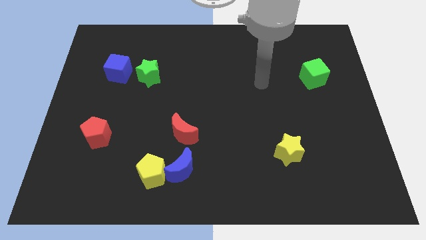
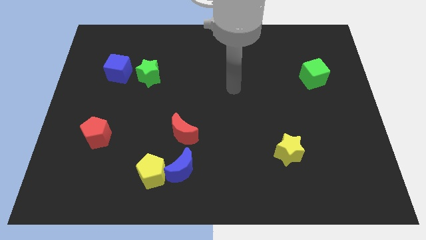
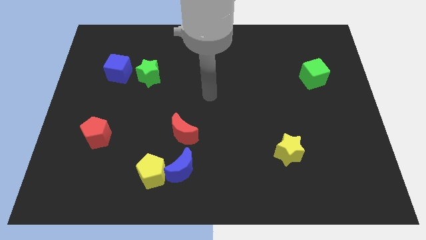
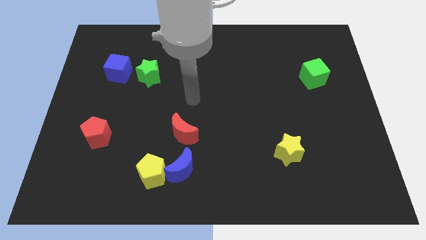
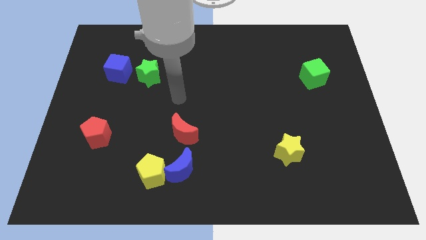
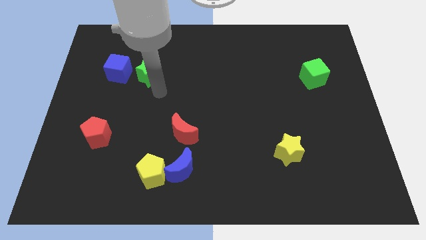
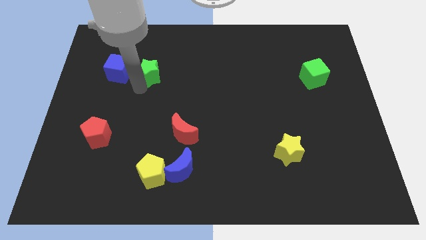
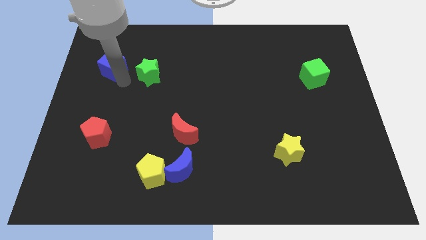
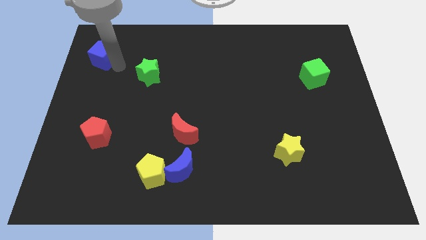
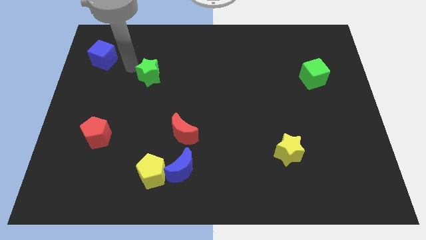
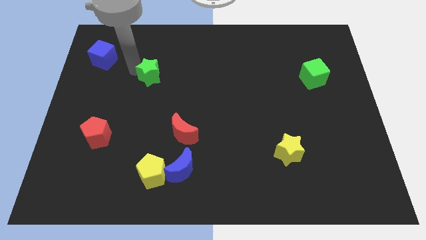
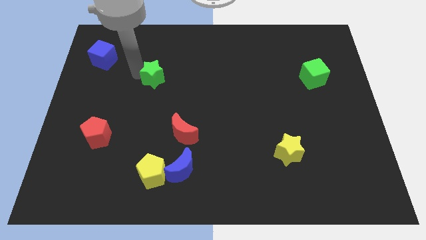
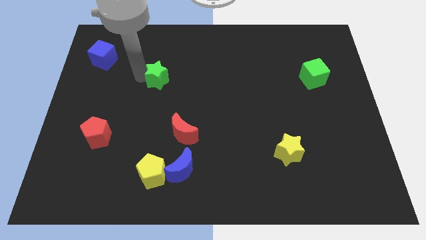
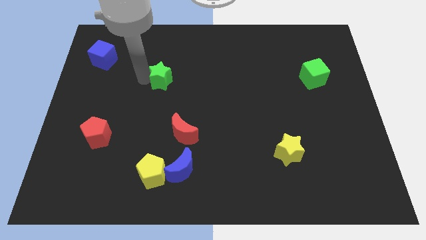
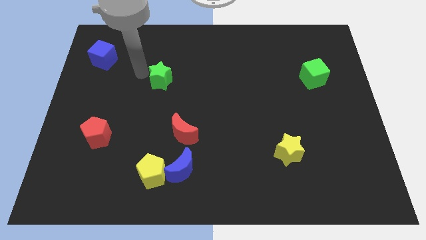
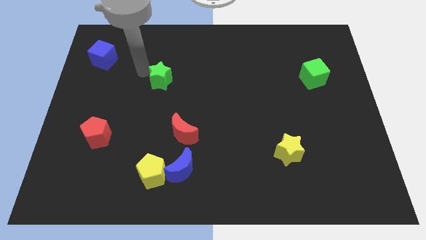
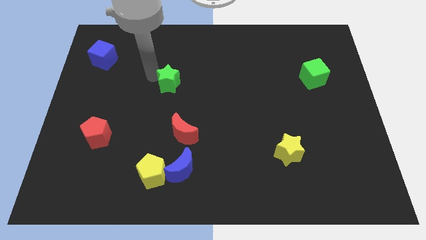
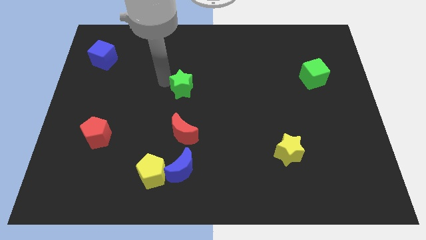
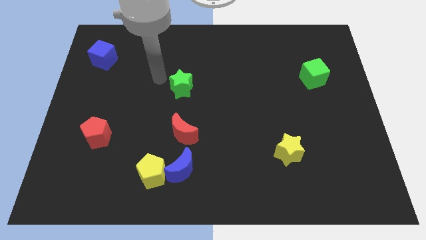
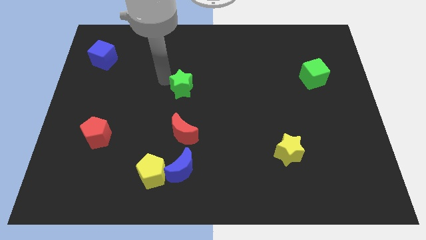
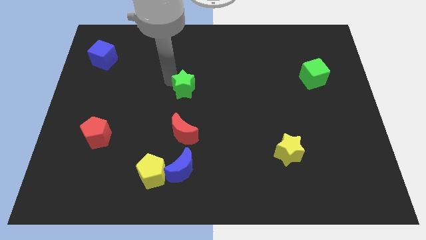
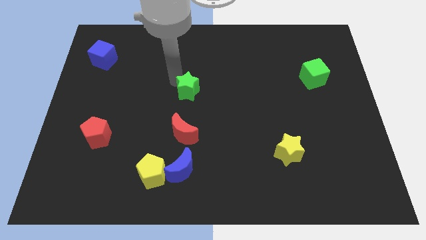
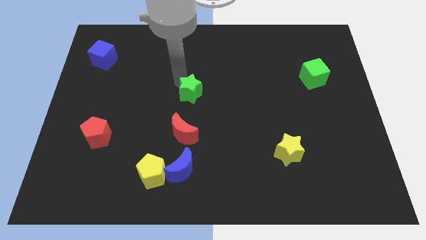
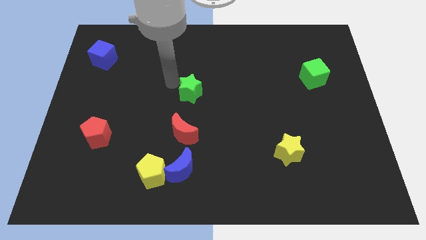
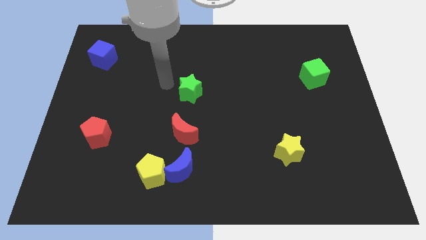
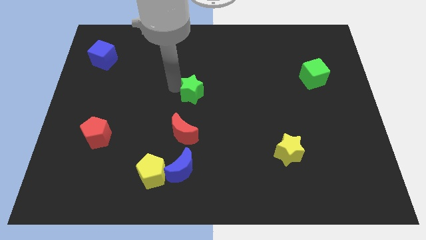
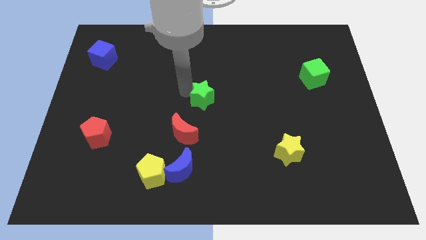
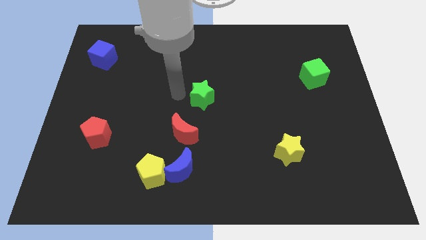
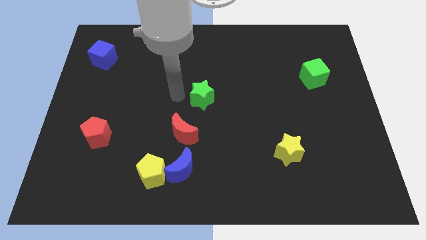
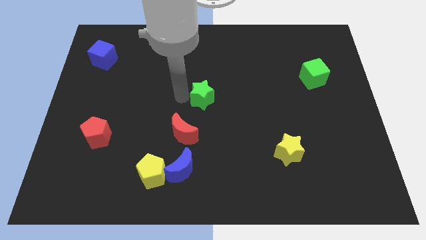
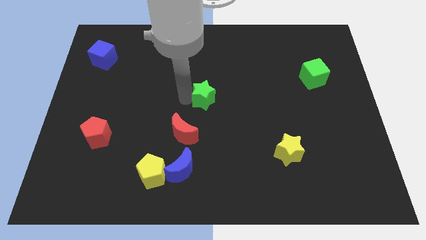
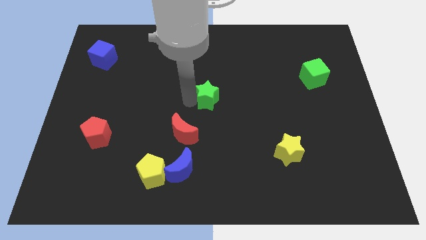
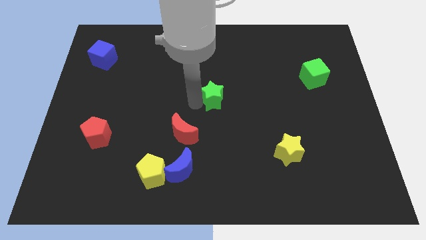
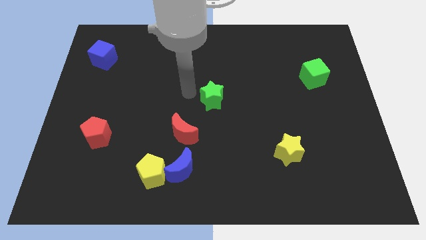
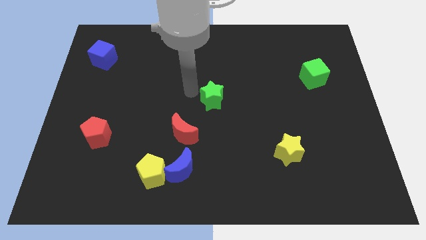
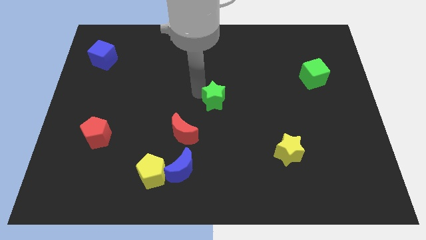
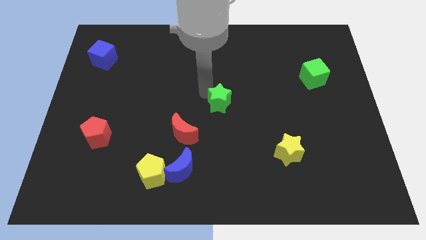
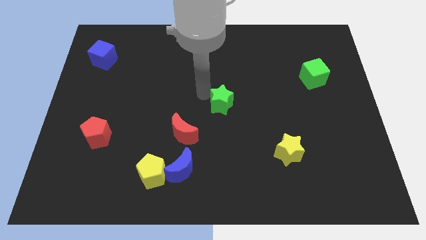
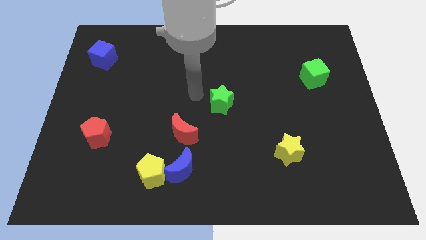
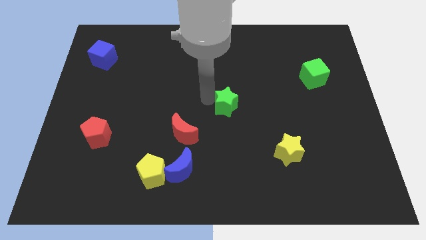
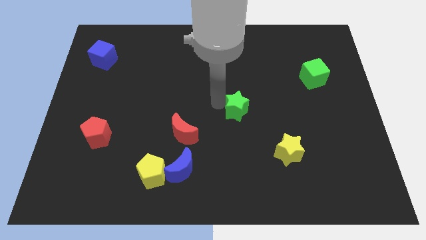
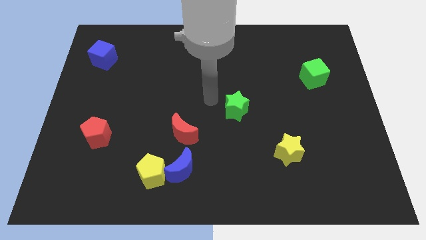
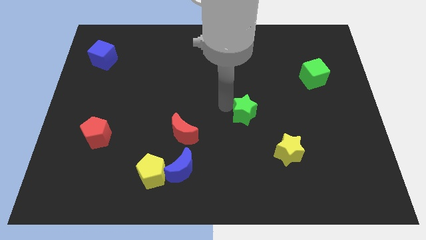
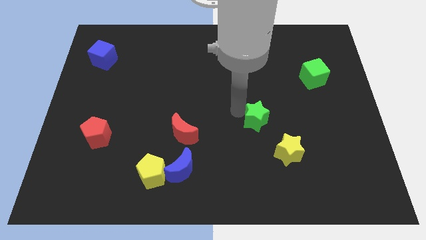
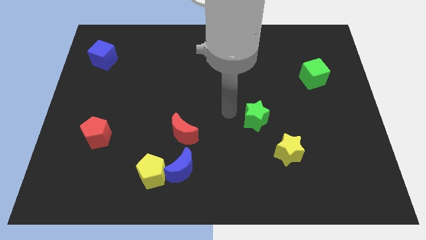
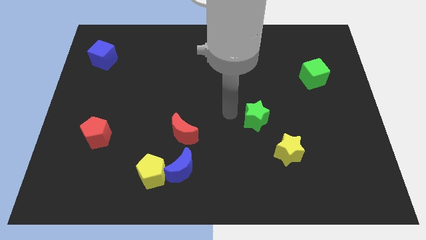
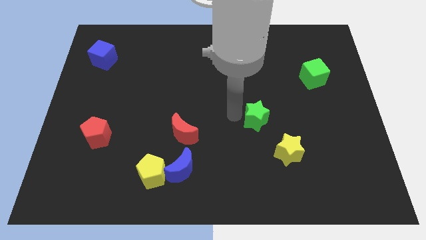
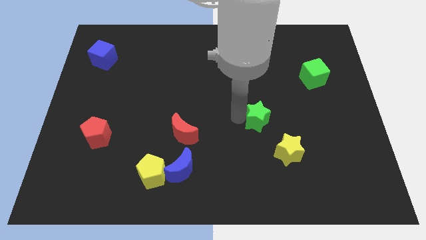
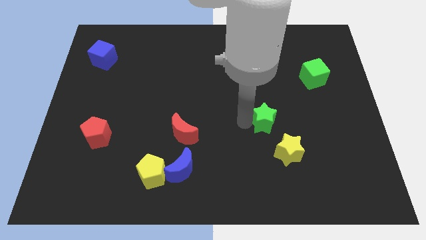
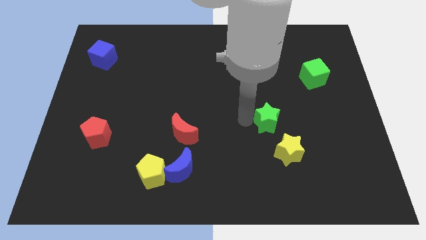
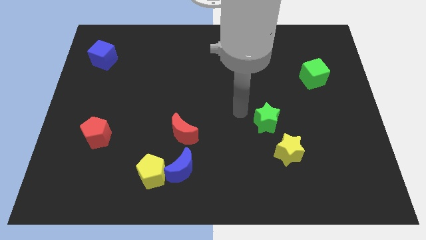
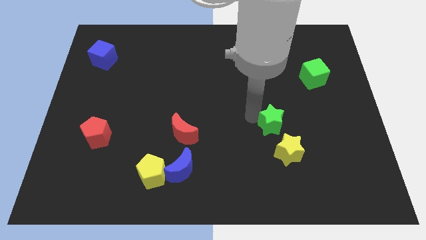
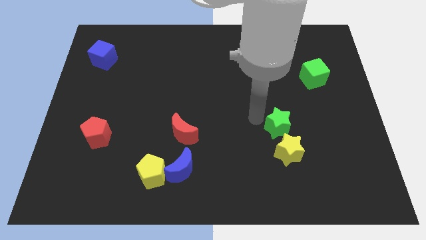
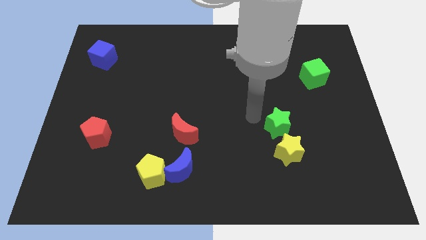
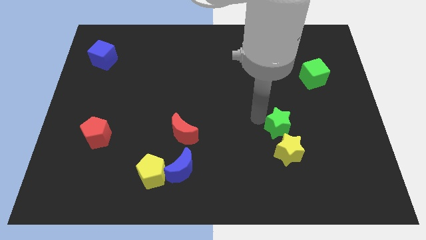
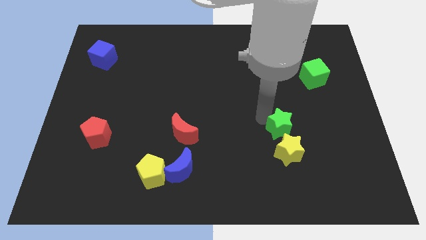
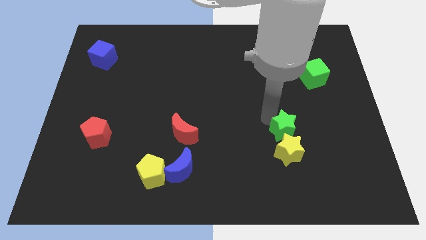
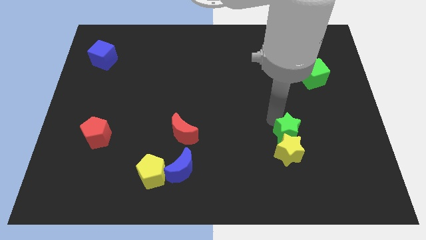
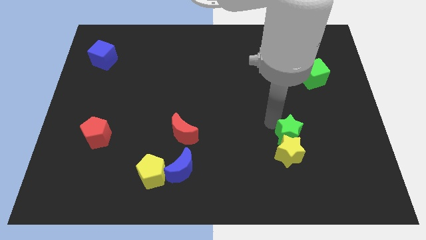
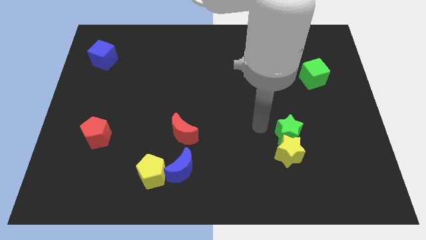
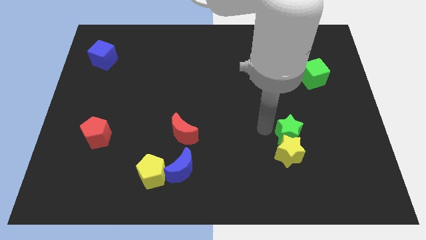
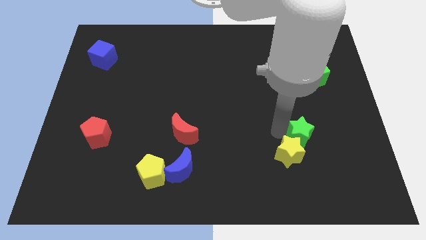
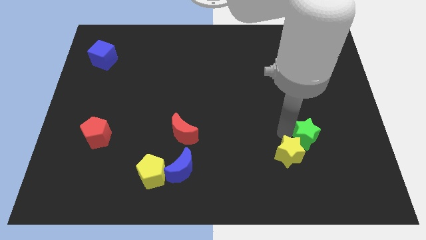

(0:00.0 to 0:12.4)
put the green star to the right of the yellow star
